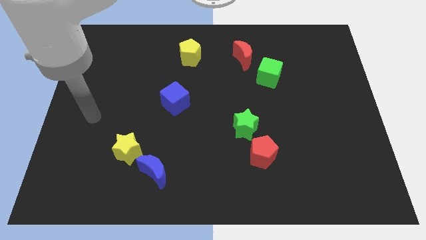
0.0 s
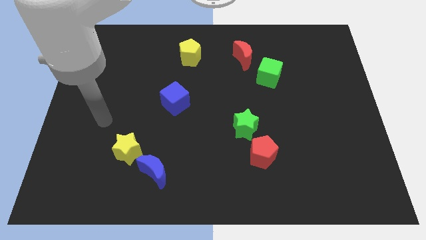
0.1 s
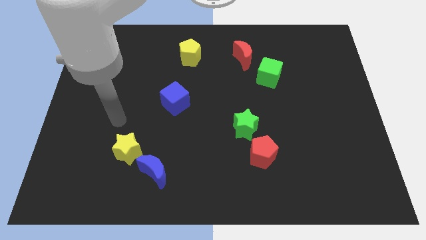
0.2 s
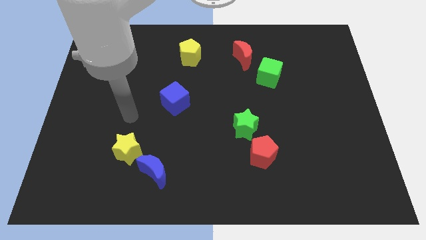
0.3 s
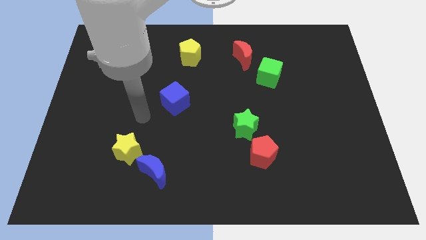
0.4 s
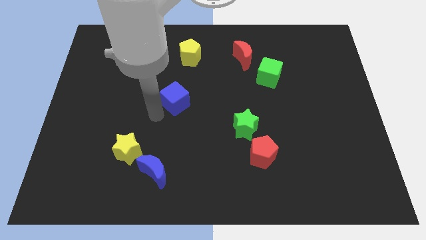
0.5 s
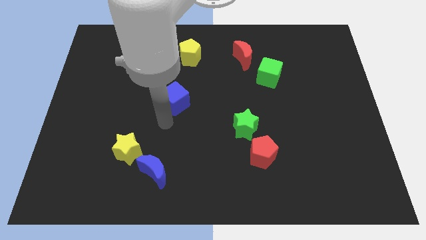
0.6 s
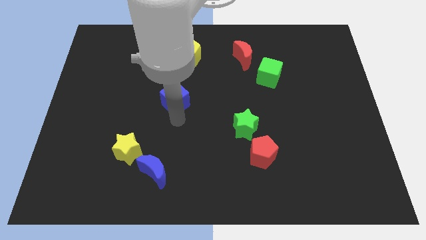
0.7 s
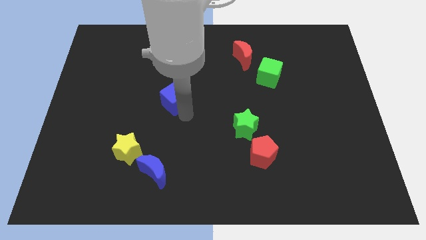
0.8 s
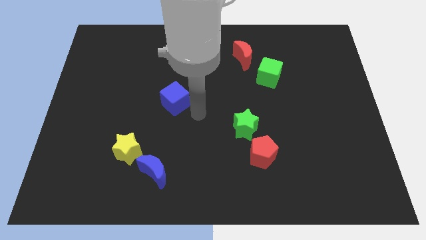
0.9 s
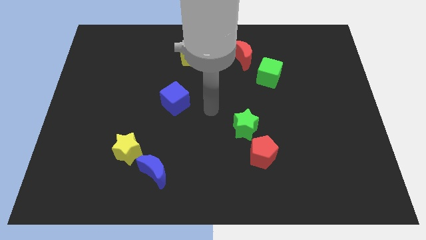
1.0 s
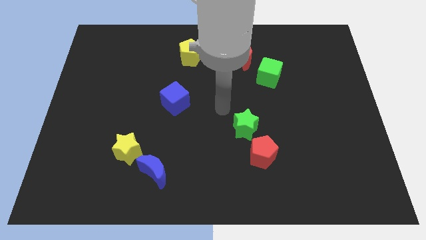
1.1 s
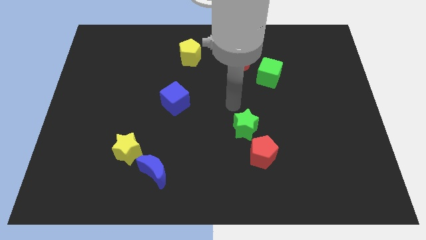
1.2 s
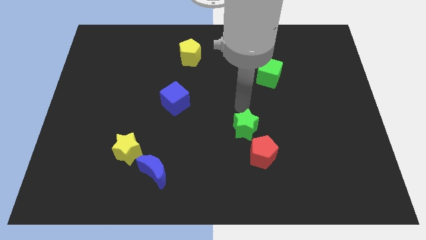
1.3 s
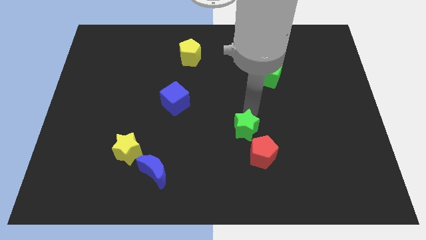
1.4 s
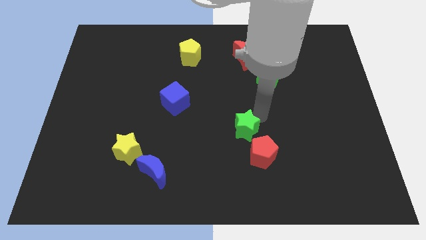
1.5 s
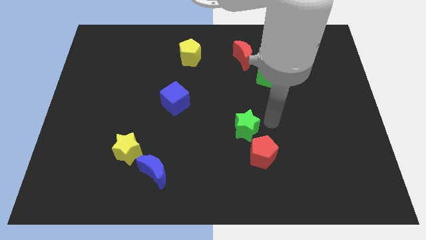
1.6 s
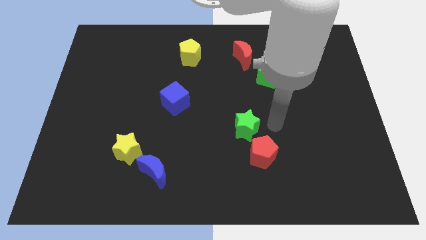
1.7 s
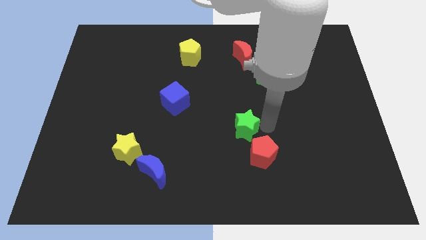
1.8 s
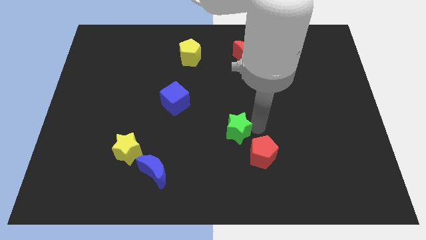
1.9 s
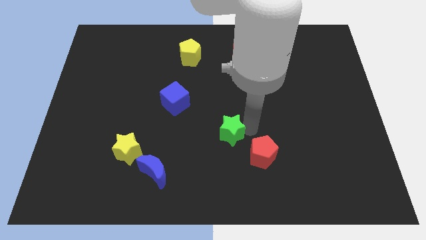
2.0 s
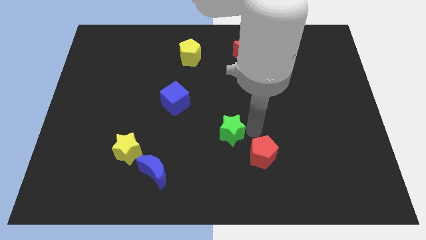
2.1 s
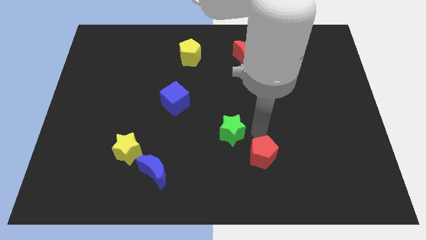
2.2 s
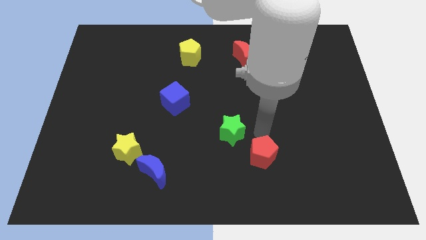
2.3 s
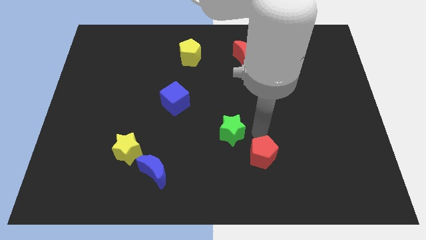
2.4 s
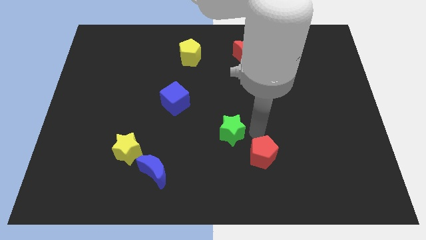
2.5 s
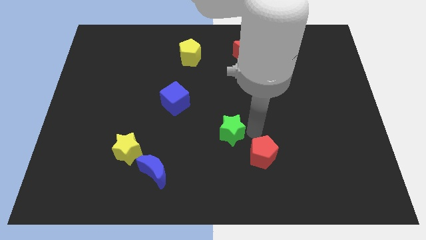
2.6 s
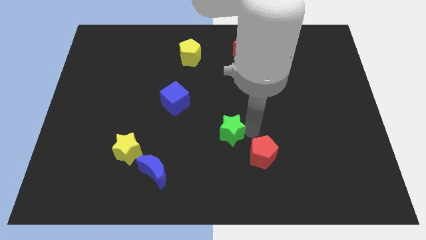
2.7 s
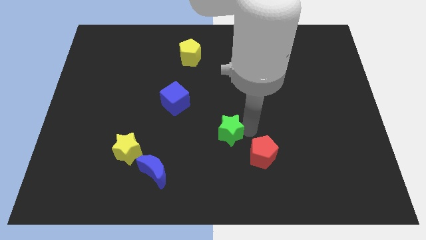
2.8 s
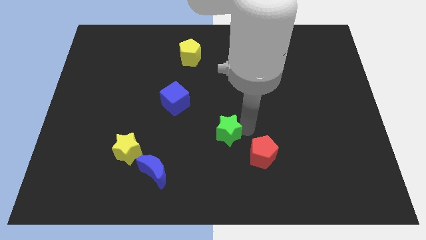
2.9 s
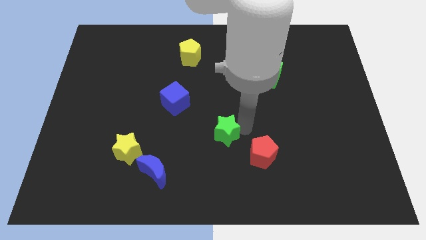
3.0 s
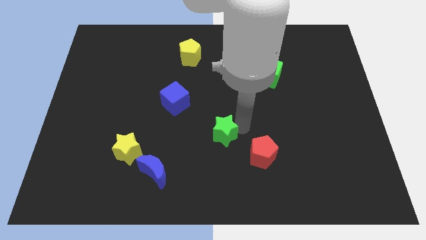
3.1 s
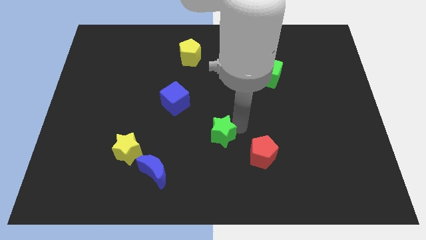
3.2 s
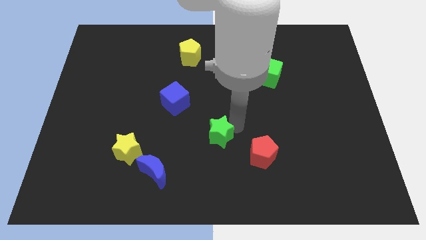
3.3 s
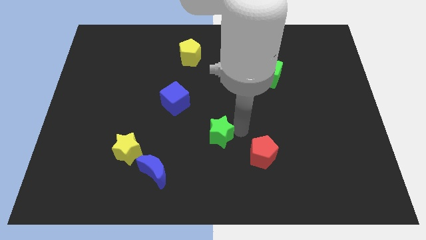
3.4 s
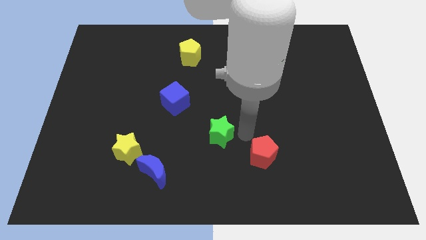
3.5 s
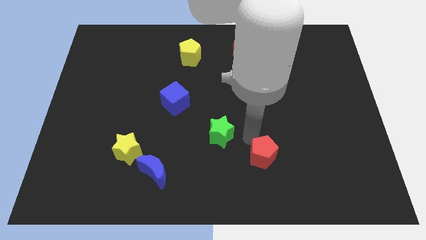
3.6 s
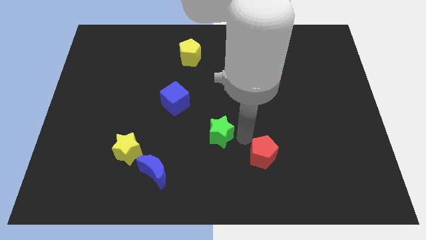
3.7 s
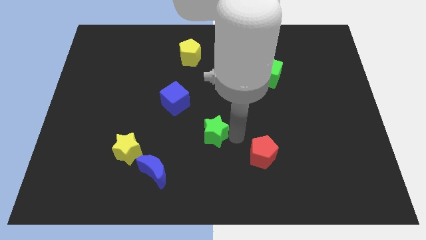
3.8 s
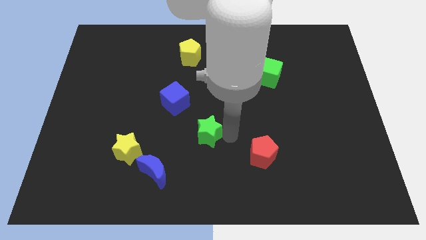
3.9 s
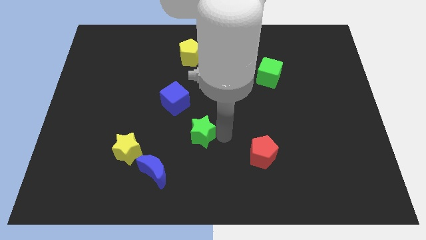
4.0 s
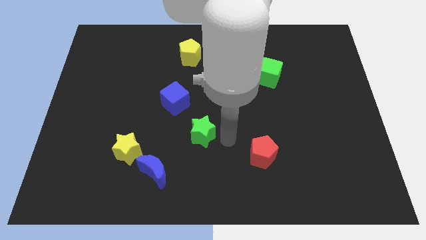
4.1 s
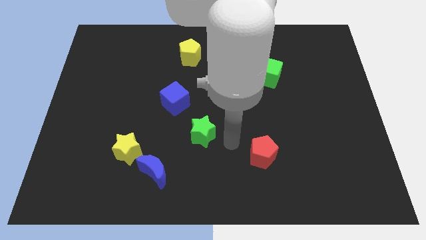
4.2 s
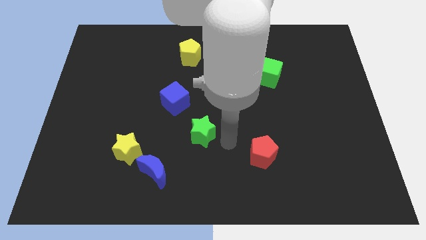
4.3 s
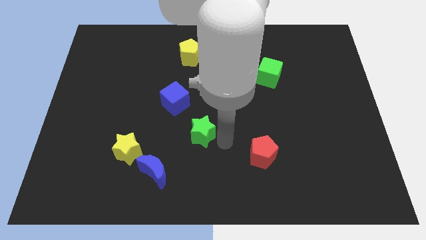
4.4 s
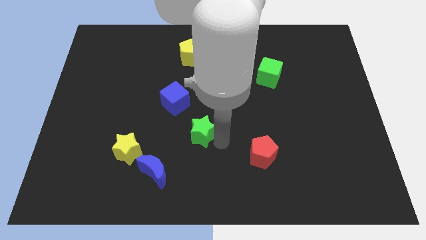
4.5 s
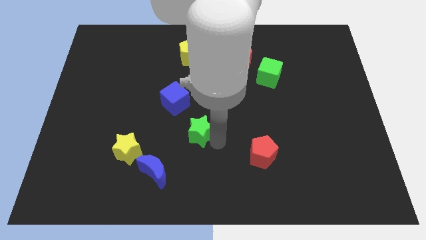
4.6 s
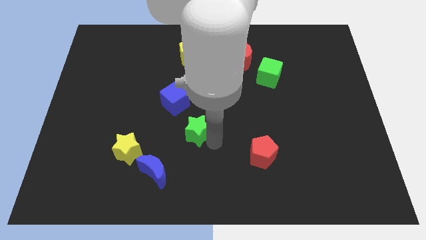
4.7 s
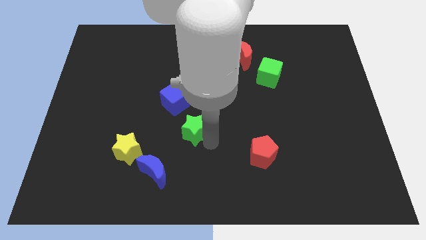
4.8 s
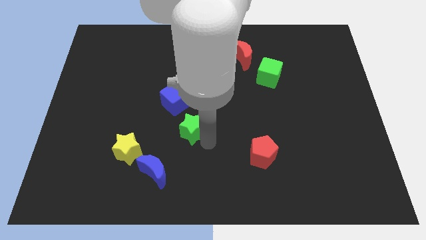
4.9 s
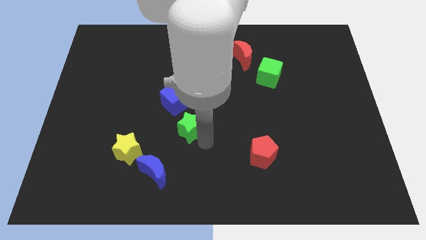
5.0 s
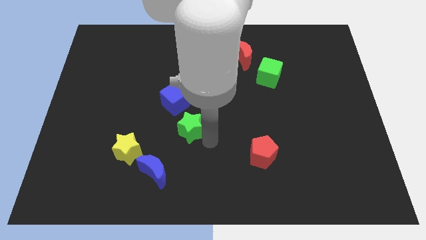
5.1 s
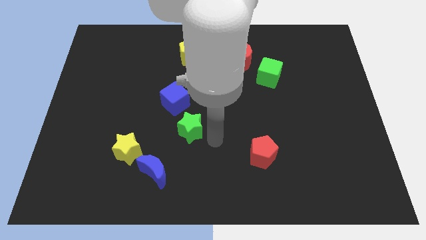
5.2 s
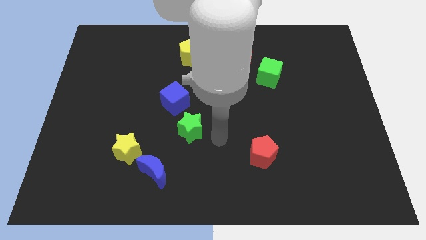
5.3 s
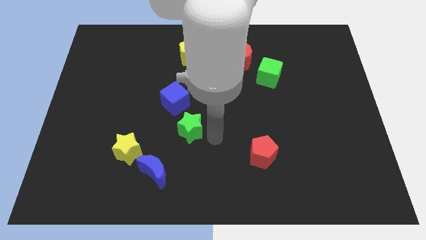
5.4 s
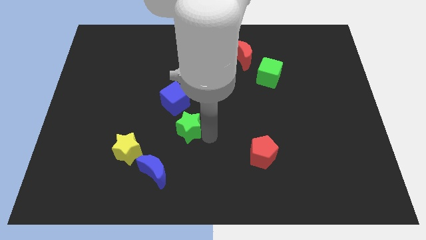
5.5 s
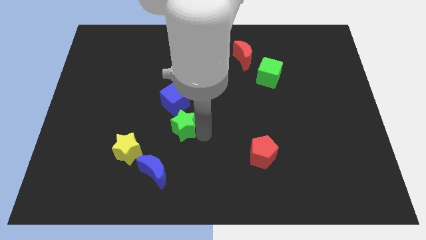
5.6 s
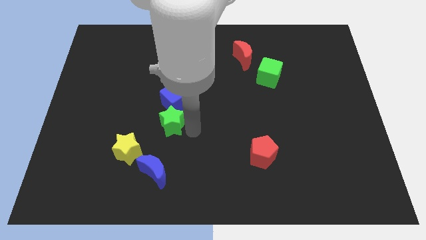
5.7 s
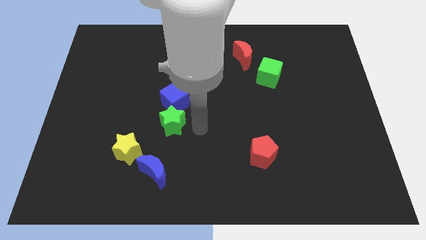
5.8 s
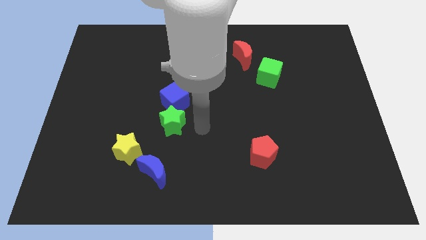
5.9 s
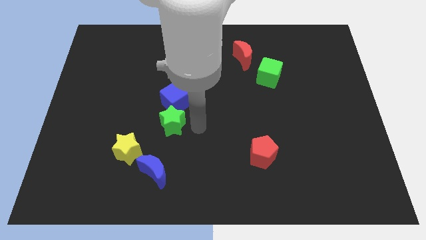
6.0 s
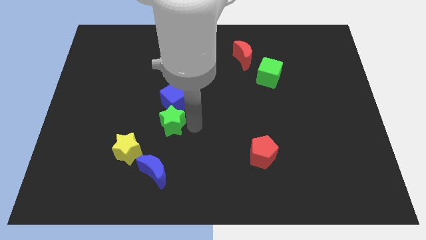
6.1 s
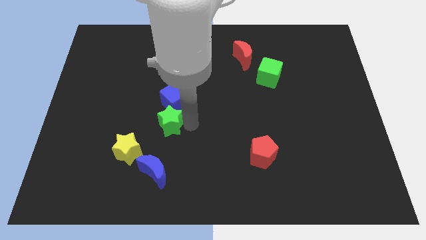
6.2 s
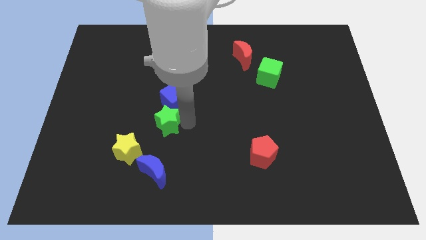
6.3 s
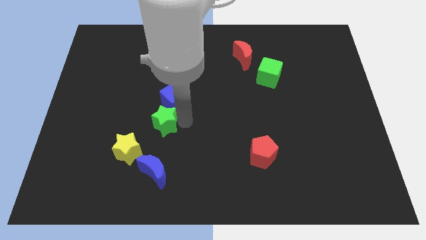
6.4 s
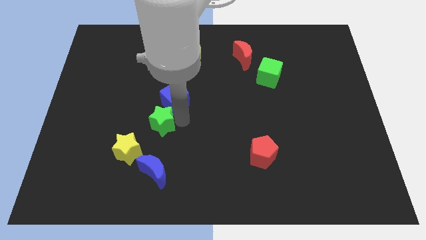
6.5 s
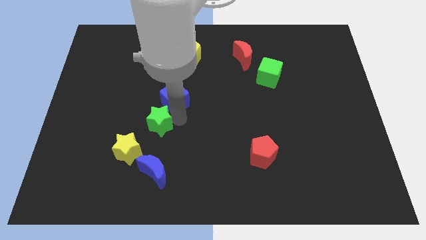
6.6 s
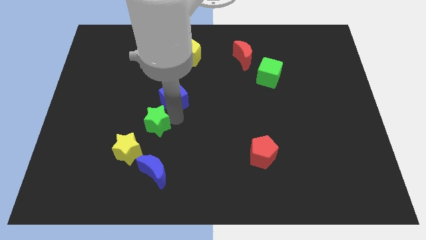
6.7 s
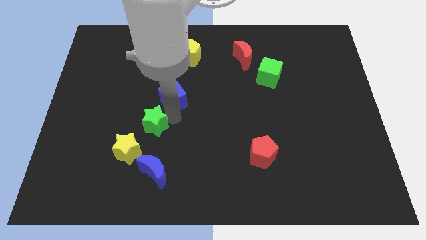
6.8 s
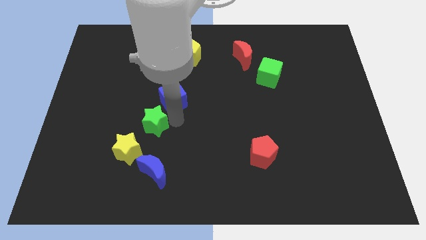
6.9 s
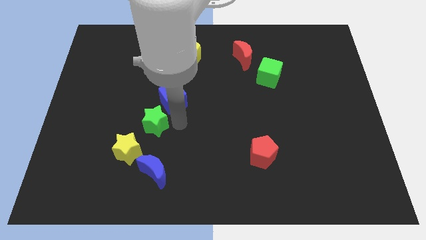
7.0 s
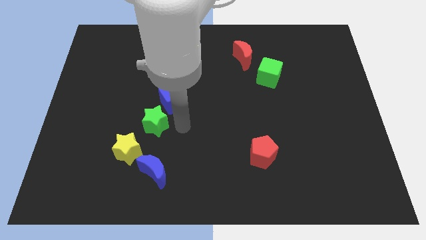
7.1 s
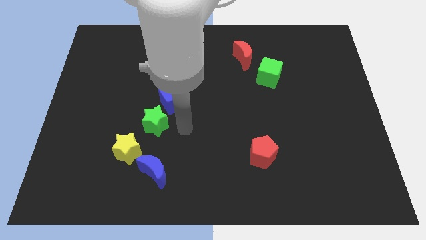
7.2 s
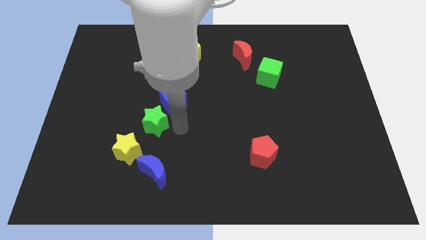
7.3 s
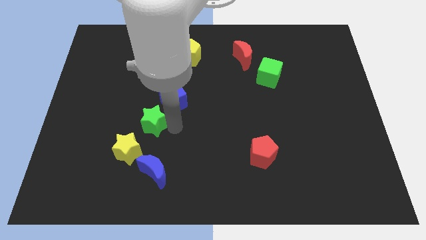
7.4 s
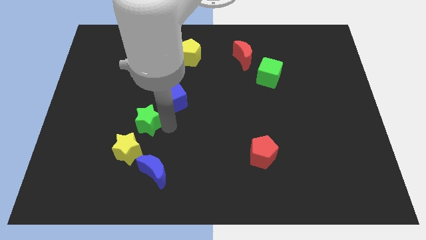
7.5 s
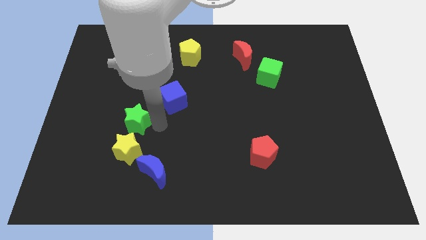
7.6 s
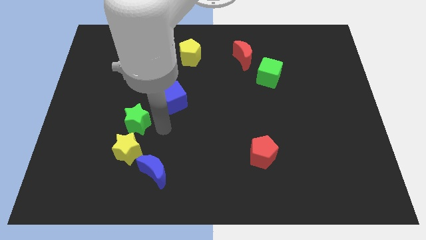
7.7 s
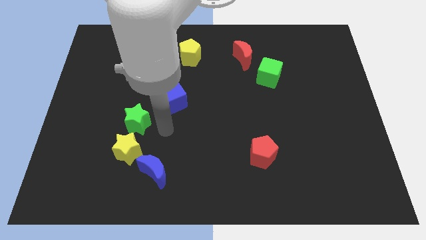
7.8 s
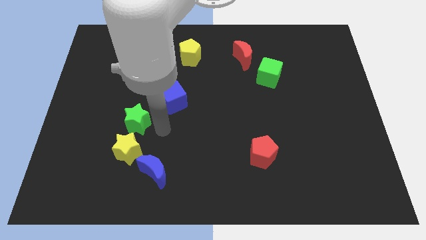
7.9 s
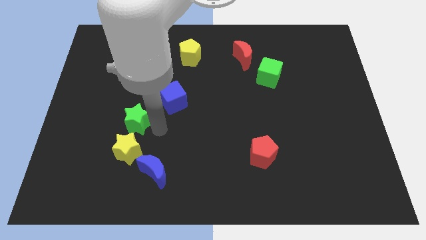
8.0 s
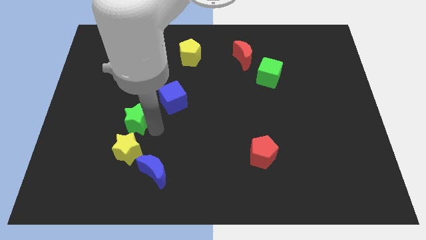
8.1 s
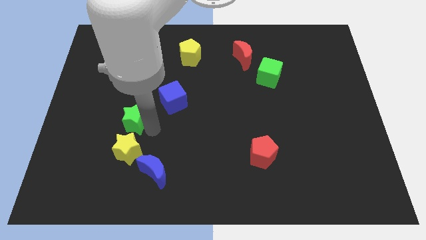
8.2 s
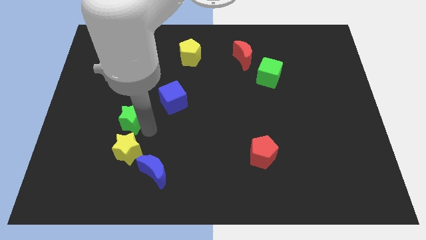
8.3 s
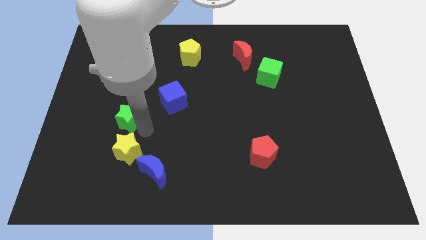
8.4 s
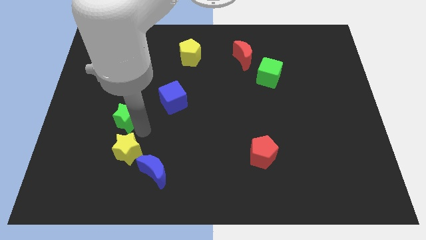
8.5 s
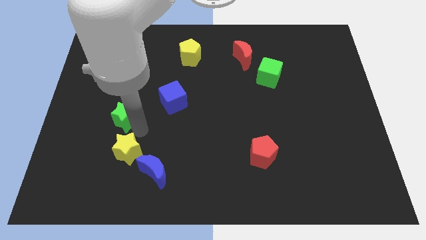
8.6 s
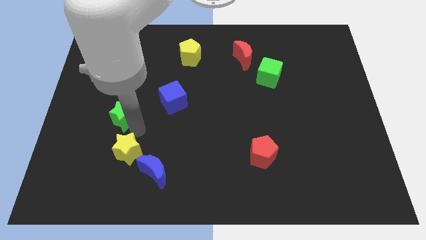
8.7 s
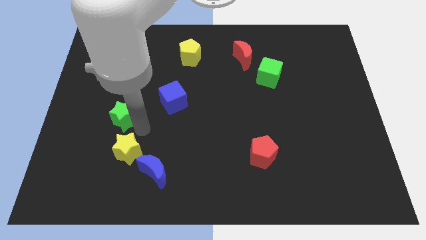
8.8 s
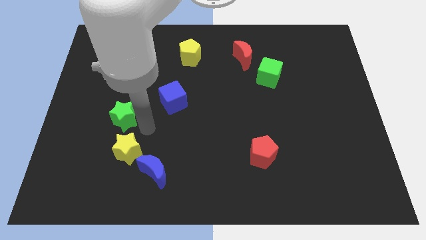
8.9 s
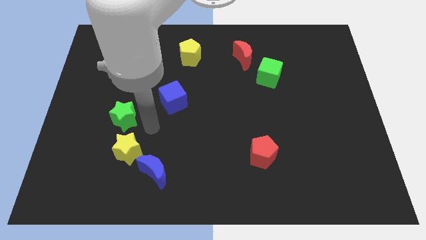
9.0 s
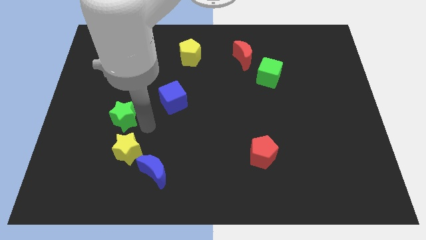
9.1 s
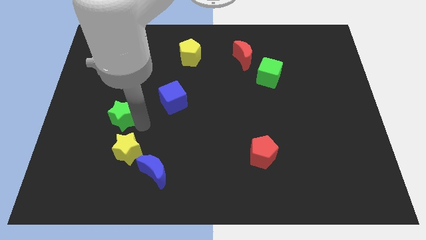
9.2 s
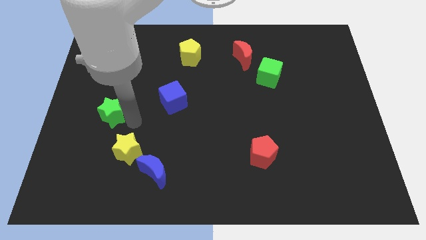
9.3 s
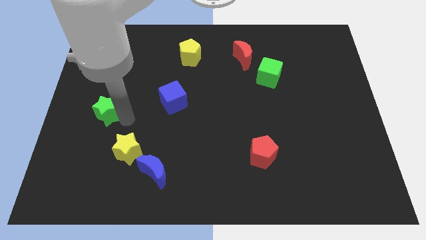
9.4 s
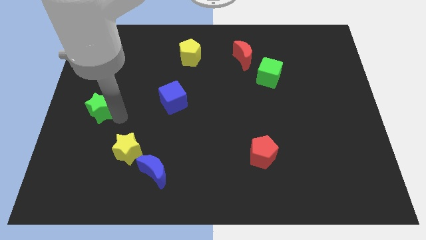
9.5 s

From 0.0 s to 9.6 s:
move the green star to the center left
